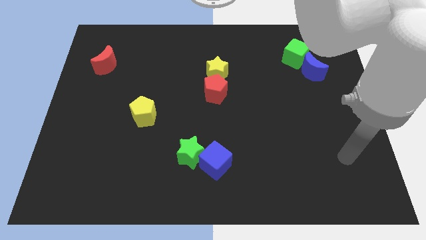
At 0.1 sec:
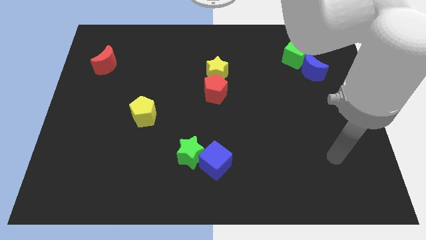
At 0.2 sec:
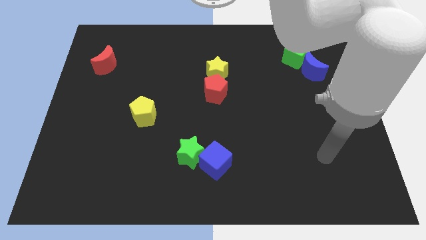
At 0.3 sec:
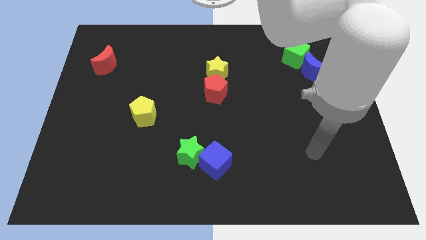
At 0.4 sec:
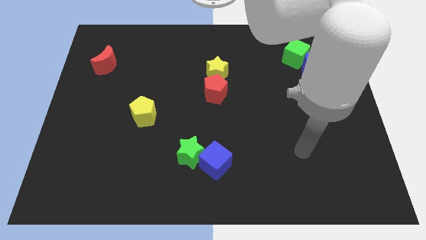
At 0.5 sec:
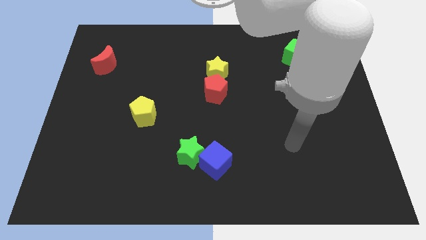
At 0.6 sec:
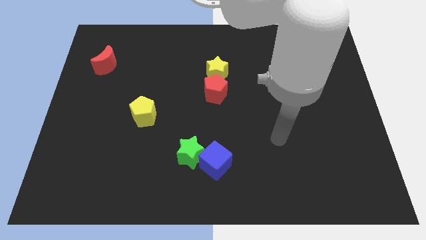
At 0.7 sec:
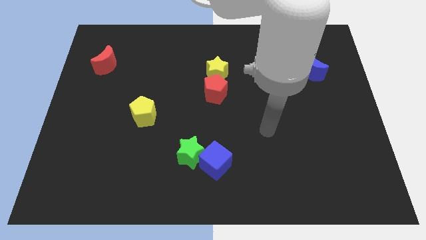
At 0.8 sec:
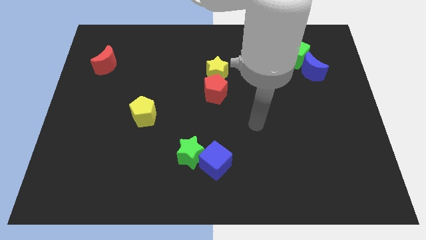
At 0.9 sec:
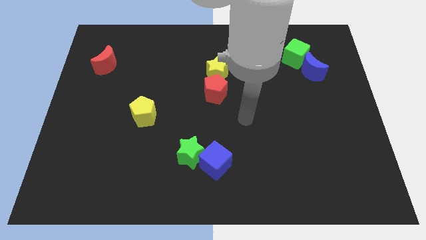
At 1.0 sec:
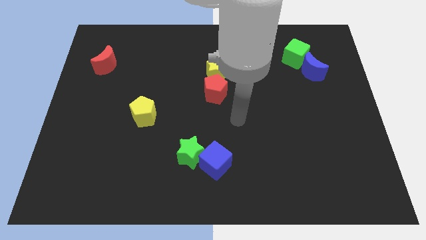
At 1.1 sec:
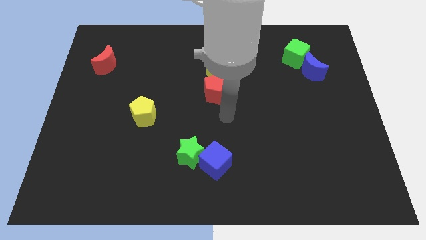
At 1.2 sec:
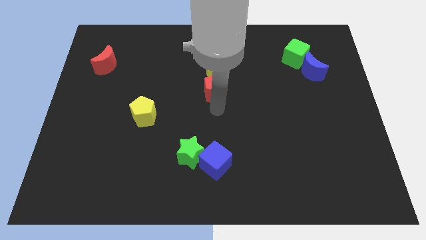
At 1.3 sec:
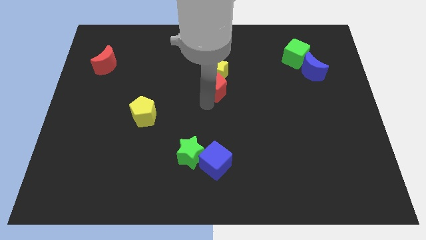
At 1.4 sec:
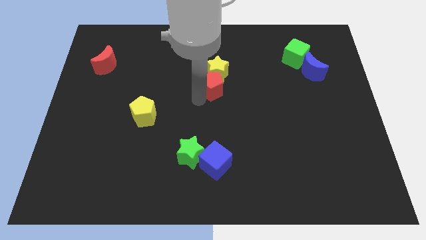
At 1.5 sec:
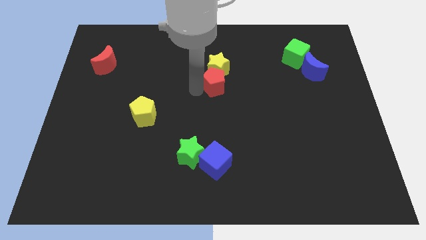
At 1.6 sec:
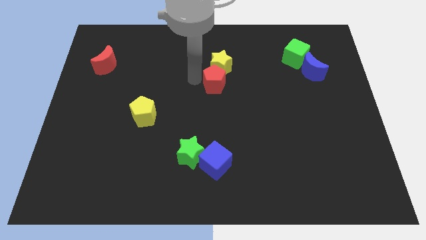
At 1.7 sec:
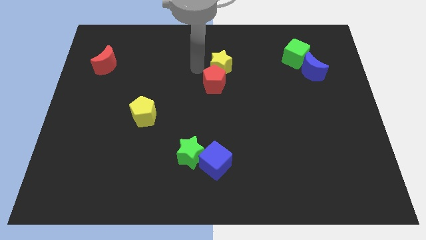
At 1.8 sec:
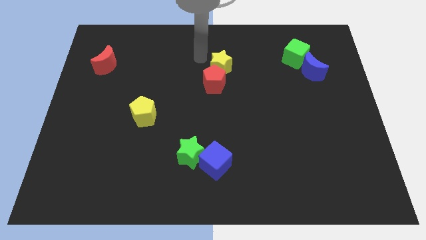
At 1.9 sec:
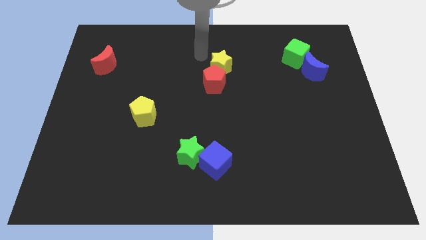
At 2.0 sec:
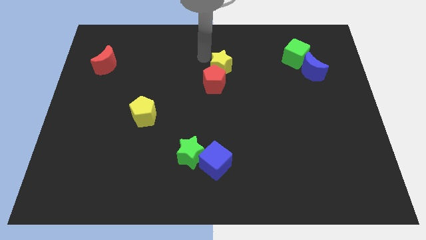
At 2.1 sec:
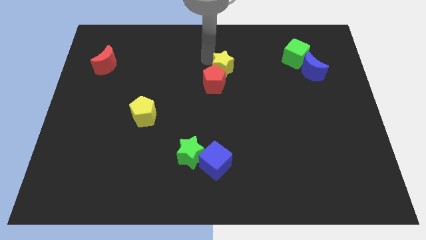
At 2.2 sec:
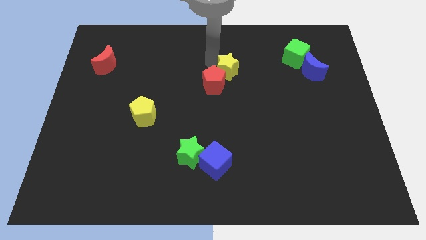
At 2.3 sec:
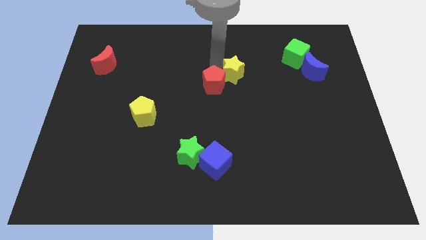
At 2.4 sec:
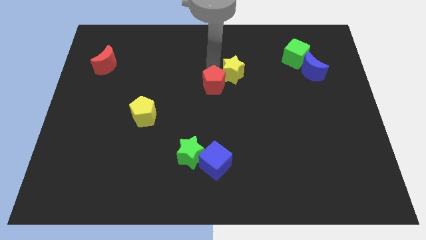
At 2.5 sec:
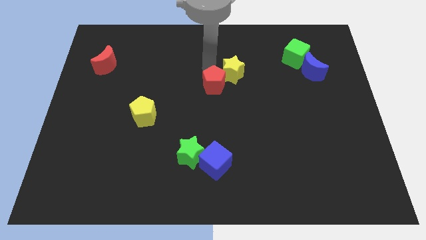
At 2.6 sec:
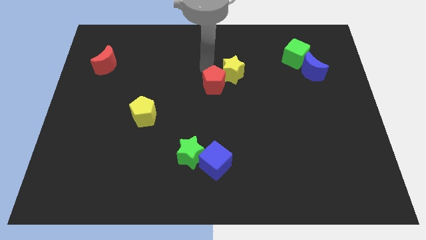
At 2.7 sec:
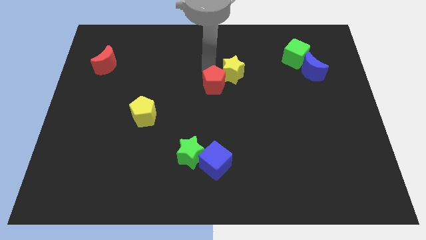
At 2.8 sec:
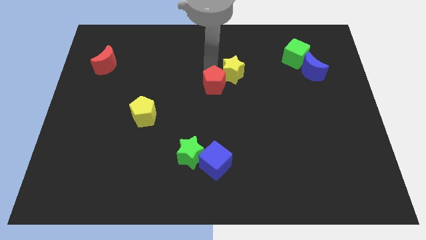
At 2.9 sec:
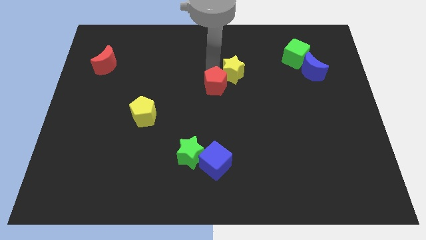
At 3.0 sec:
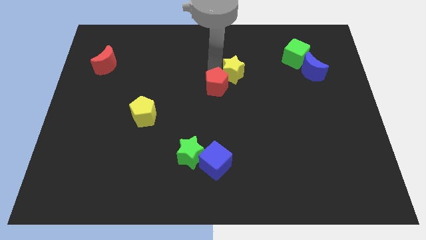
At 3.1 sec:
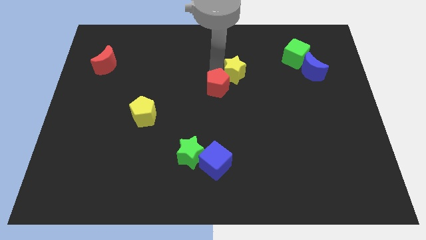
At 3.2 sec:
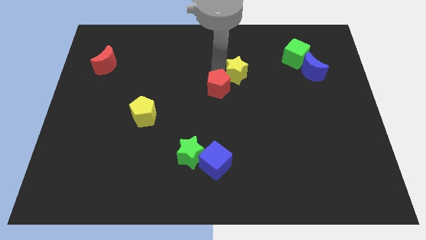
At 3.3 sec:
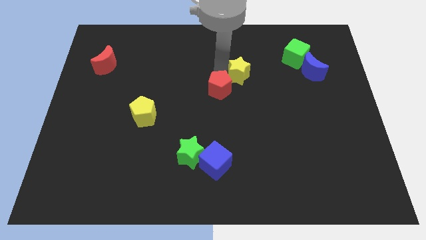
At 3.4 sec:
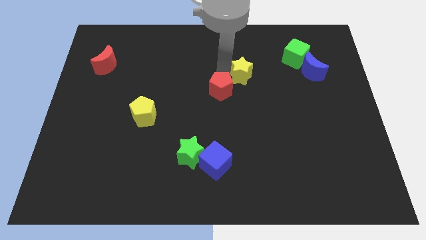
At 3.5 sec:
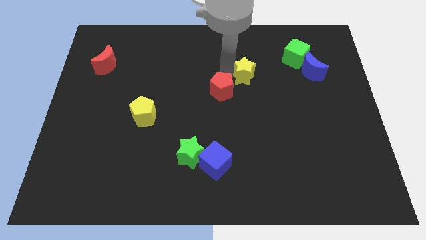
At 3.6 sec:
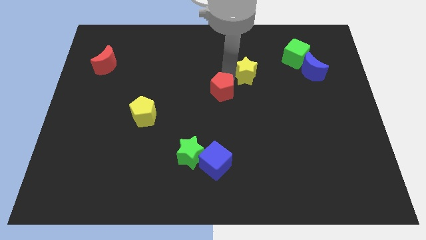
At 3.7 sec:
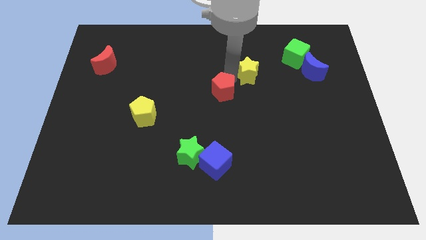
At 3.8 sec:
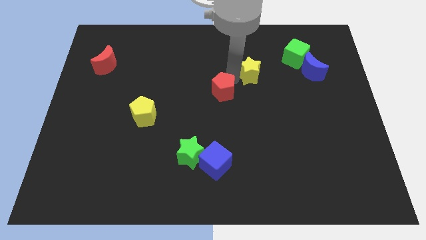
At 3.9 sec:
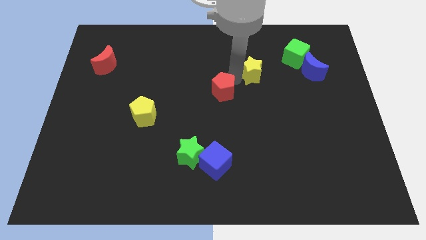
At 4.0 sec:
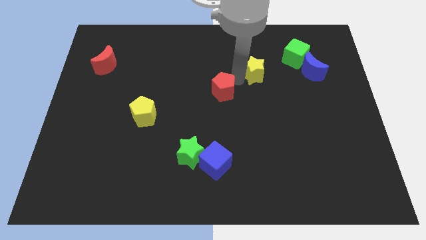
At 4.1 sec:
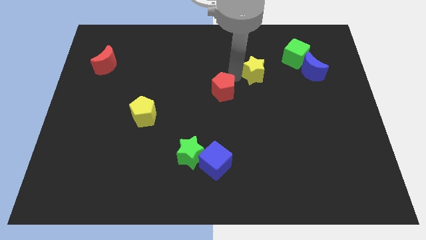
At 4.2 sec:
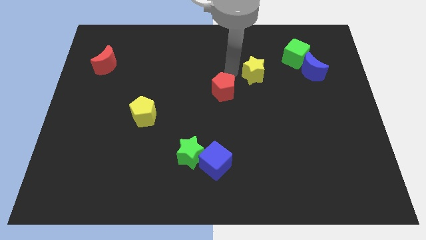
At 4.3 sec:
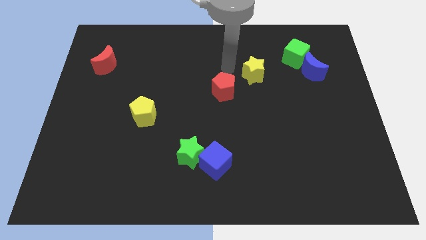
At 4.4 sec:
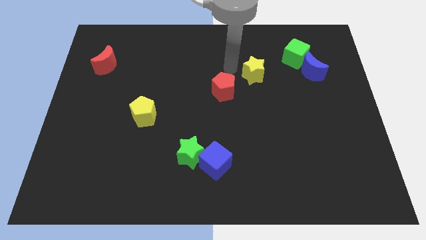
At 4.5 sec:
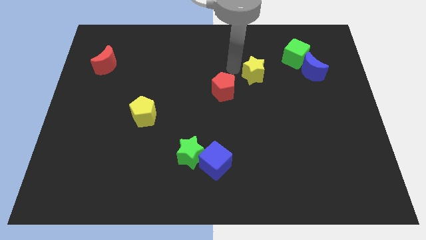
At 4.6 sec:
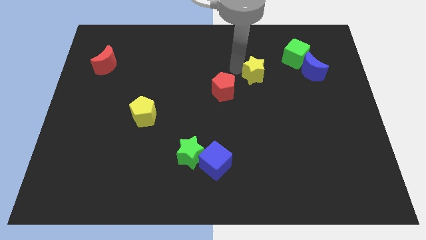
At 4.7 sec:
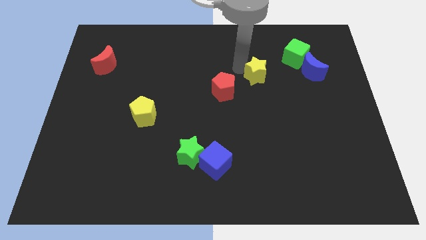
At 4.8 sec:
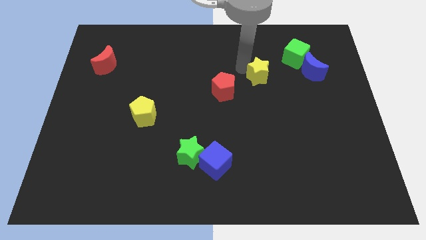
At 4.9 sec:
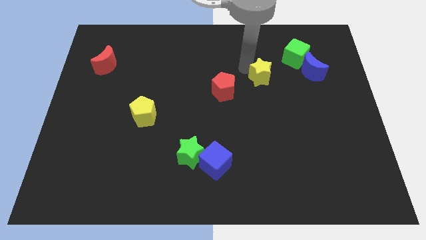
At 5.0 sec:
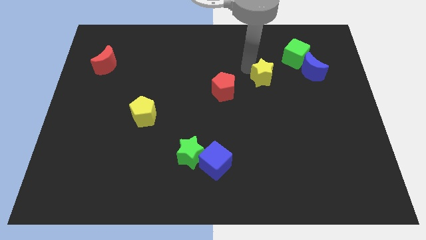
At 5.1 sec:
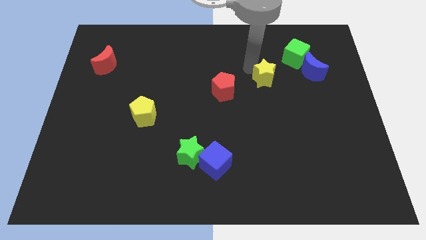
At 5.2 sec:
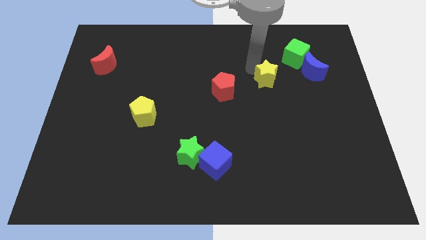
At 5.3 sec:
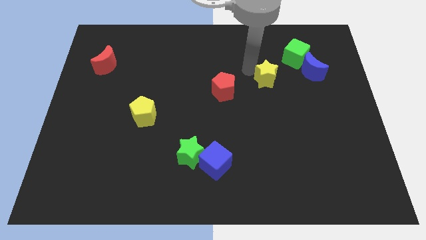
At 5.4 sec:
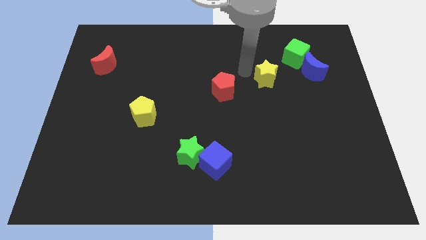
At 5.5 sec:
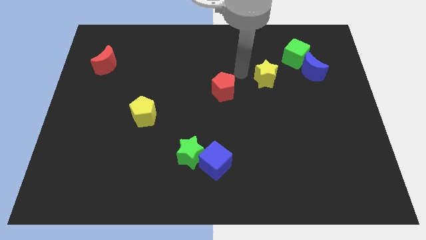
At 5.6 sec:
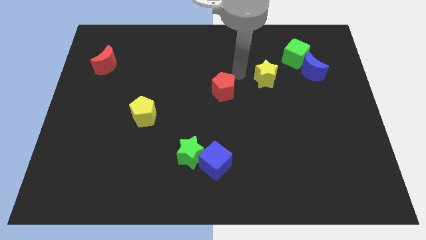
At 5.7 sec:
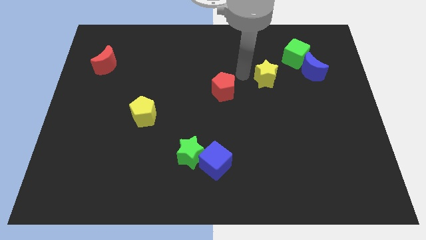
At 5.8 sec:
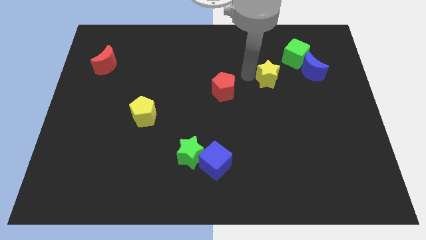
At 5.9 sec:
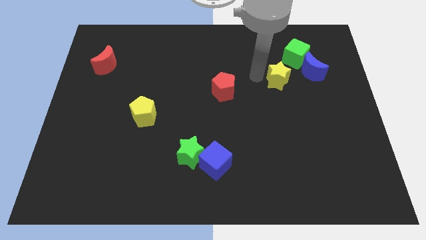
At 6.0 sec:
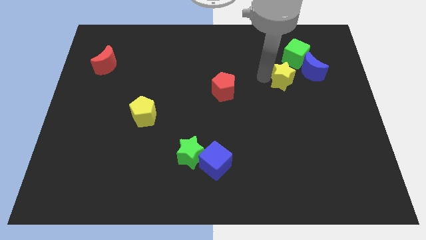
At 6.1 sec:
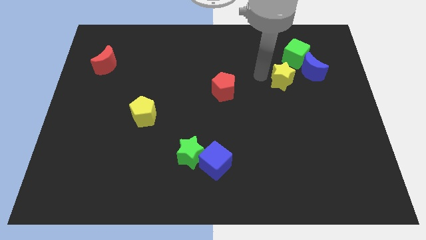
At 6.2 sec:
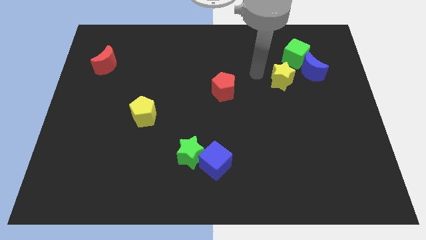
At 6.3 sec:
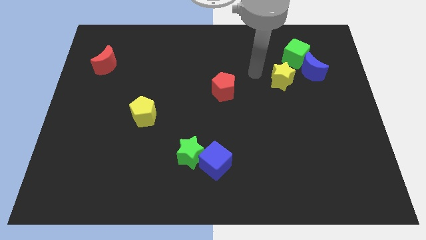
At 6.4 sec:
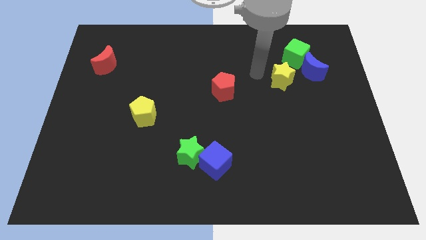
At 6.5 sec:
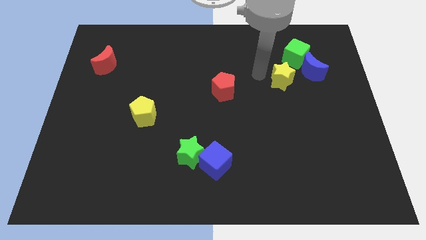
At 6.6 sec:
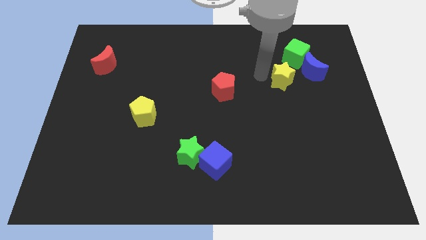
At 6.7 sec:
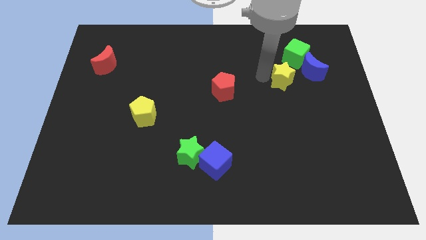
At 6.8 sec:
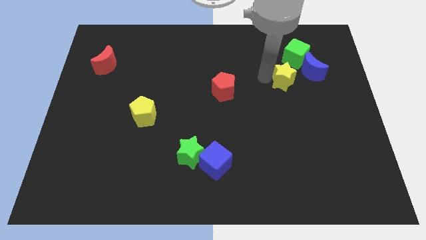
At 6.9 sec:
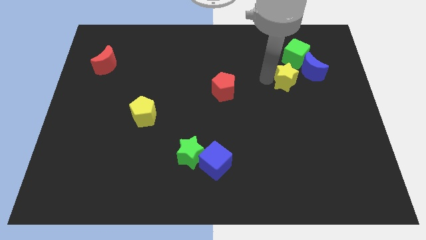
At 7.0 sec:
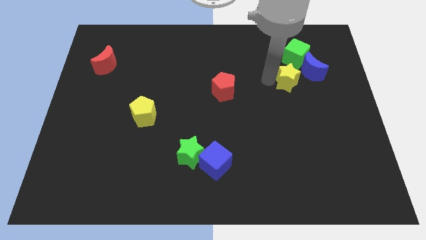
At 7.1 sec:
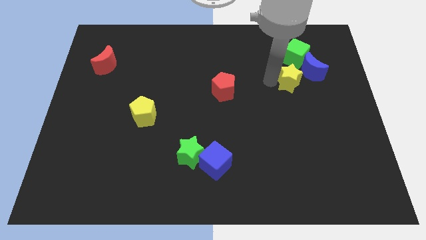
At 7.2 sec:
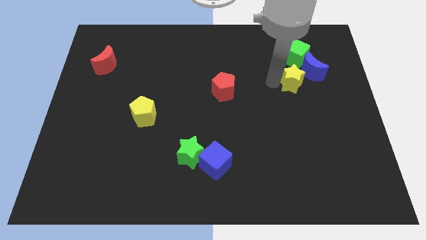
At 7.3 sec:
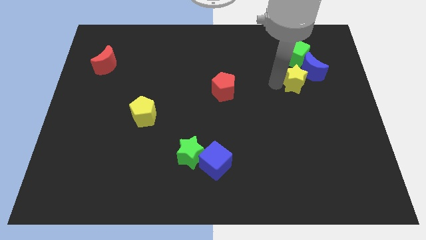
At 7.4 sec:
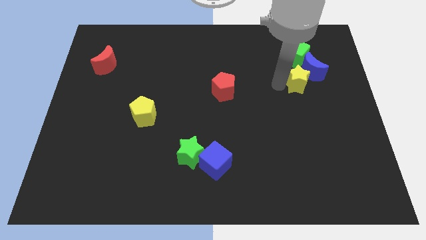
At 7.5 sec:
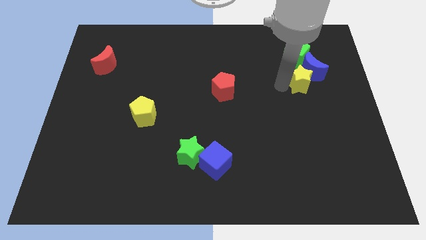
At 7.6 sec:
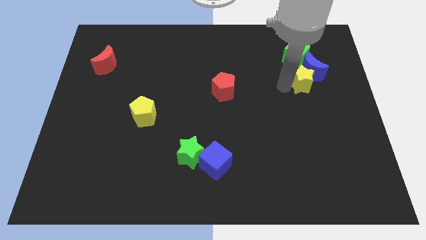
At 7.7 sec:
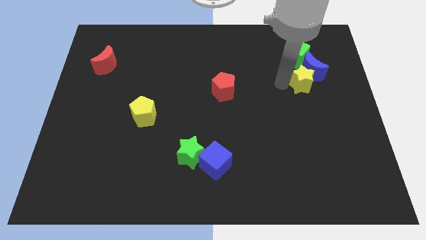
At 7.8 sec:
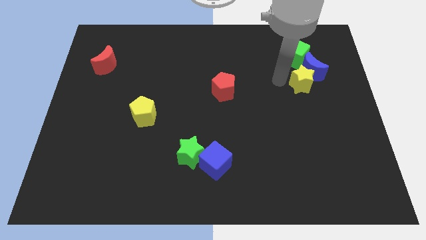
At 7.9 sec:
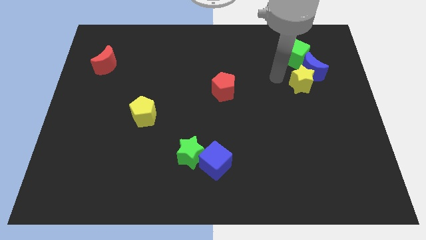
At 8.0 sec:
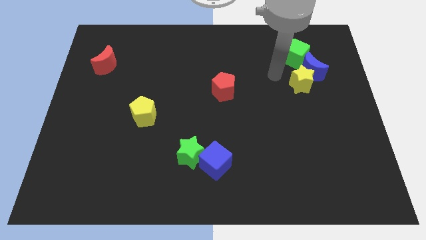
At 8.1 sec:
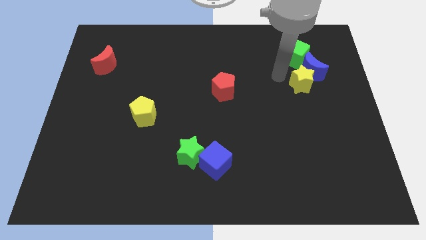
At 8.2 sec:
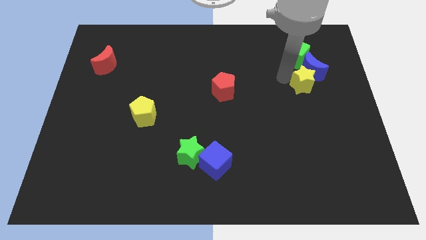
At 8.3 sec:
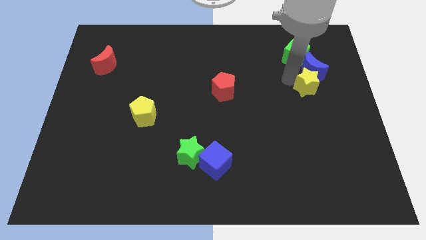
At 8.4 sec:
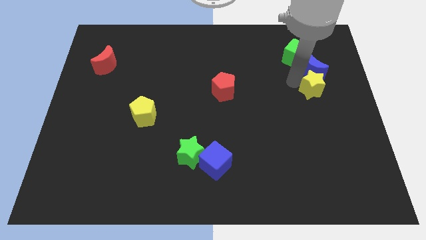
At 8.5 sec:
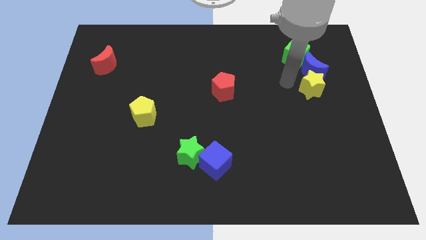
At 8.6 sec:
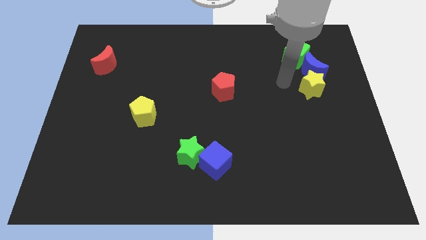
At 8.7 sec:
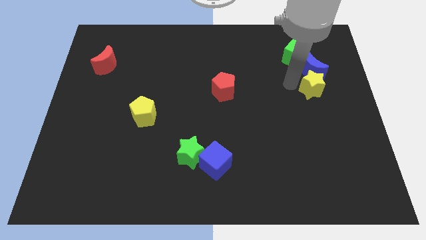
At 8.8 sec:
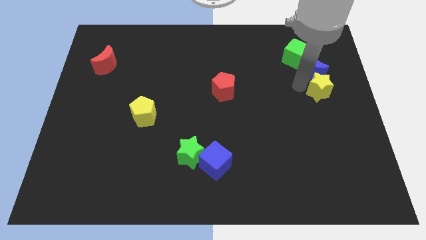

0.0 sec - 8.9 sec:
move the yellow star to the right side
